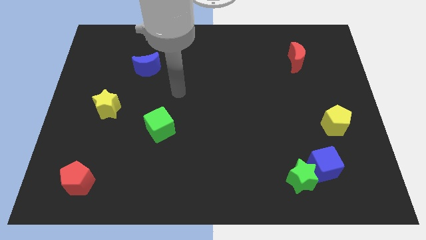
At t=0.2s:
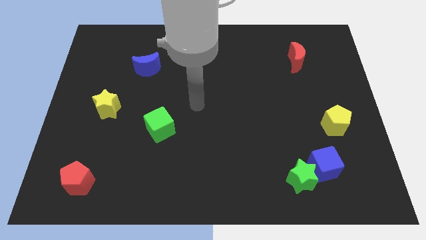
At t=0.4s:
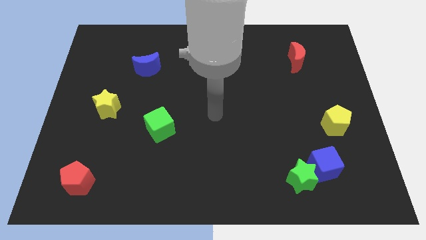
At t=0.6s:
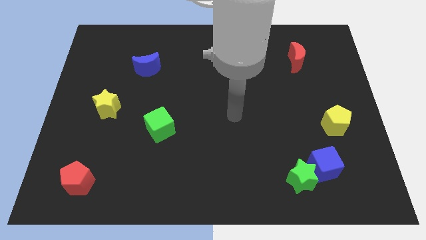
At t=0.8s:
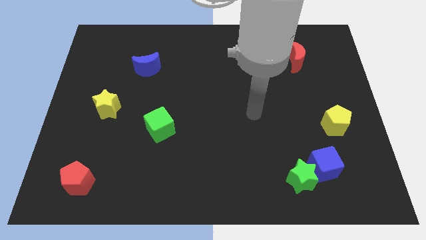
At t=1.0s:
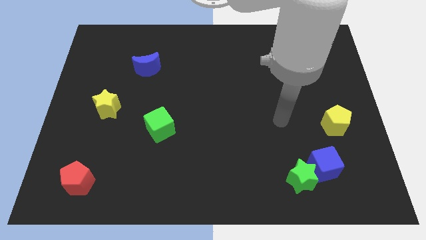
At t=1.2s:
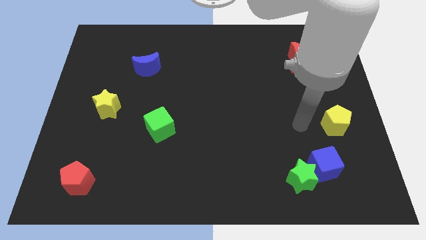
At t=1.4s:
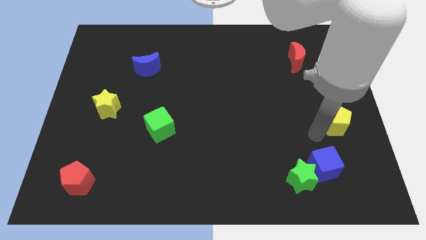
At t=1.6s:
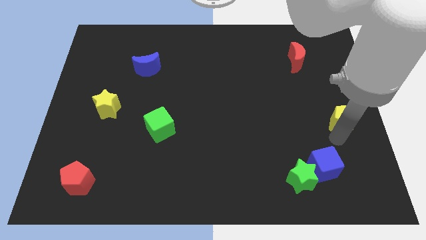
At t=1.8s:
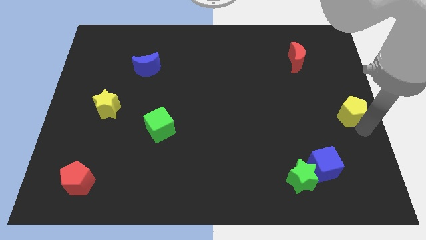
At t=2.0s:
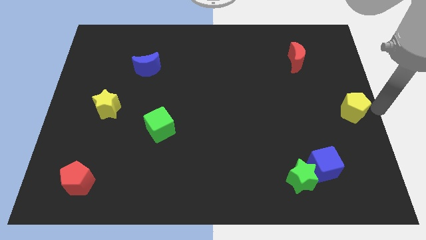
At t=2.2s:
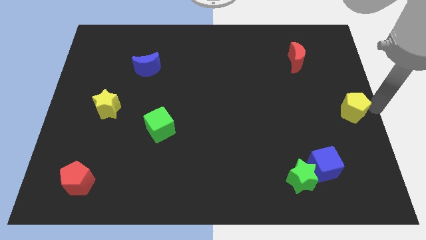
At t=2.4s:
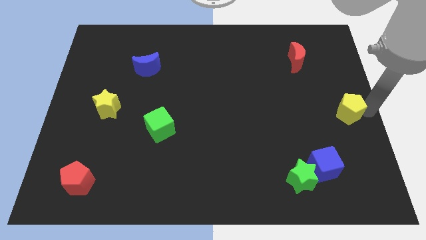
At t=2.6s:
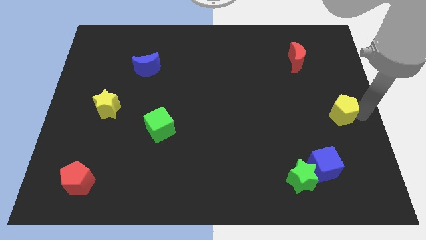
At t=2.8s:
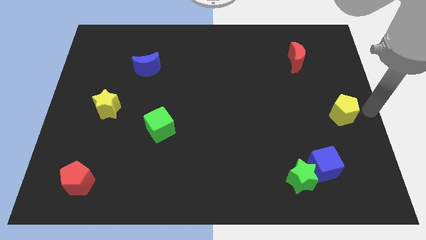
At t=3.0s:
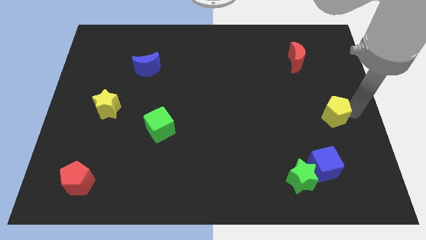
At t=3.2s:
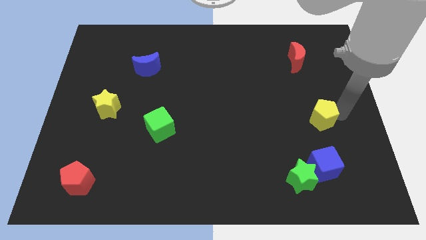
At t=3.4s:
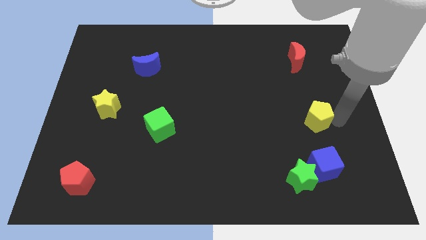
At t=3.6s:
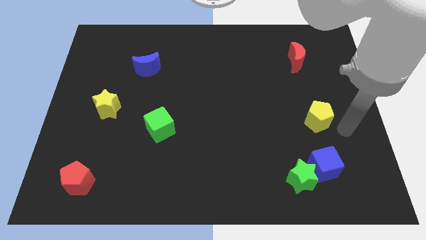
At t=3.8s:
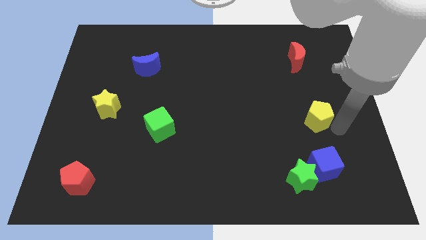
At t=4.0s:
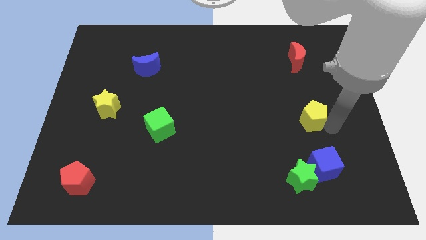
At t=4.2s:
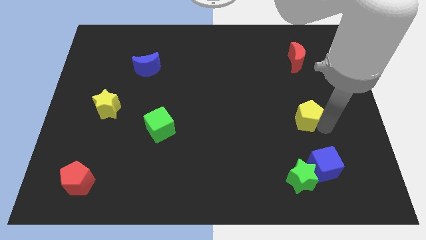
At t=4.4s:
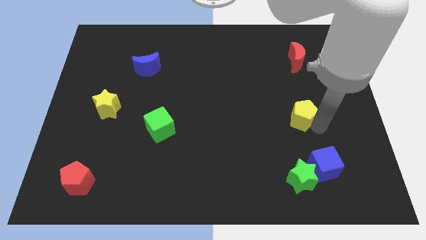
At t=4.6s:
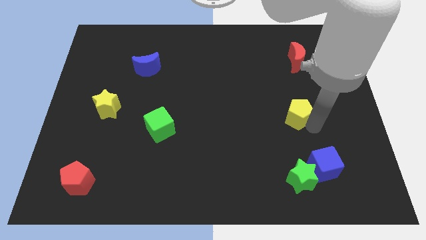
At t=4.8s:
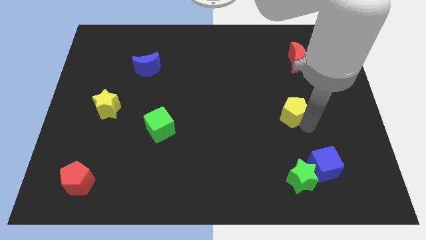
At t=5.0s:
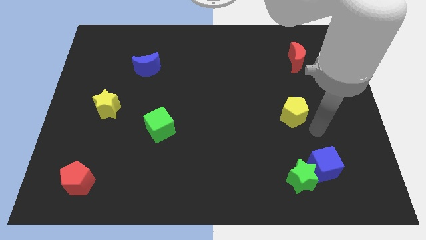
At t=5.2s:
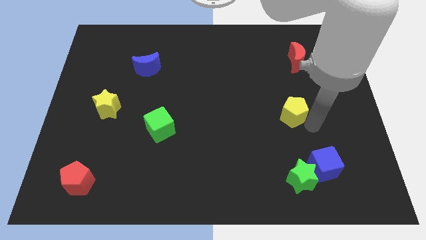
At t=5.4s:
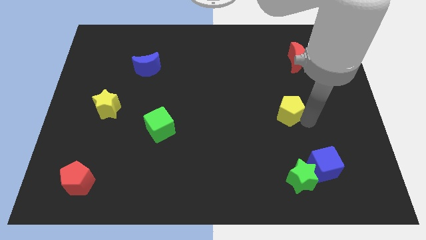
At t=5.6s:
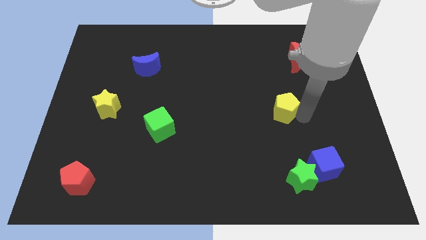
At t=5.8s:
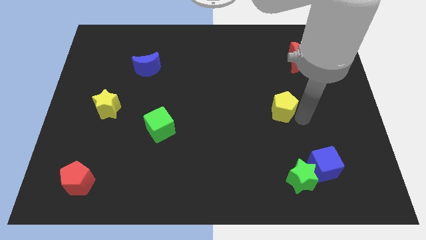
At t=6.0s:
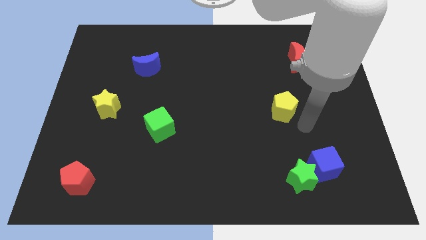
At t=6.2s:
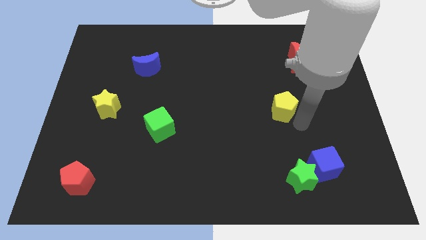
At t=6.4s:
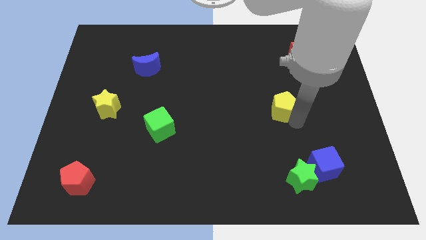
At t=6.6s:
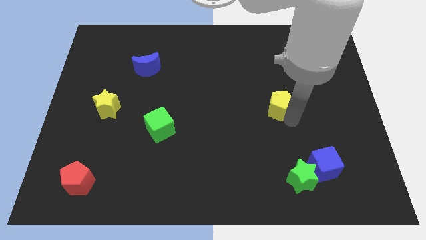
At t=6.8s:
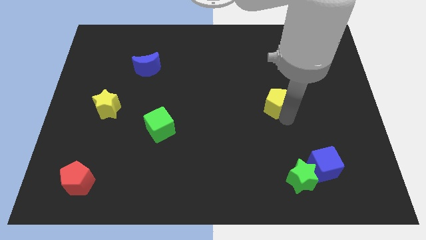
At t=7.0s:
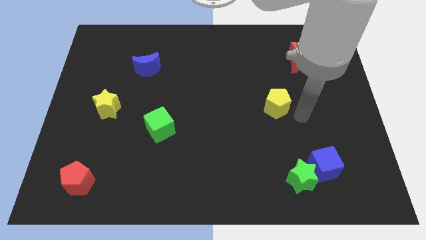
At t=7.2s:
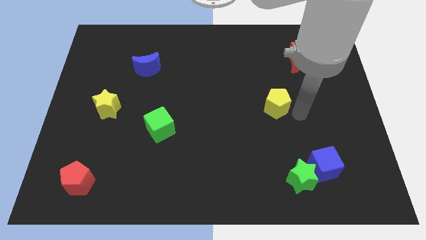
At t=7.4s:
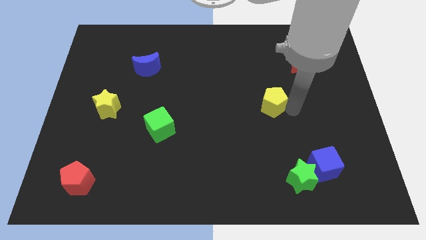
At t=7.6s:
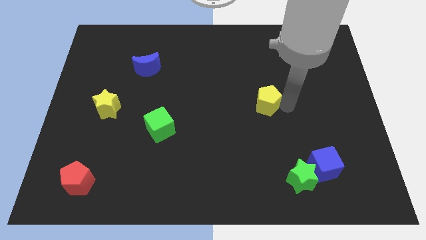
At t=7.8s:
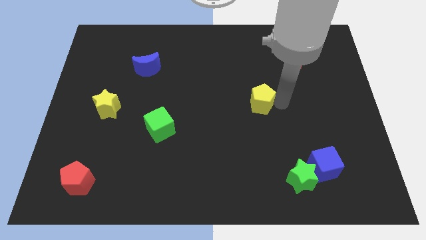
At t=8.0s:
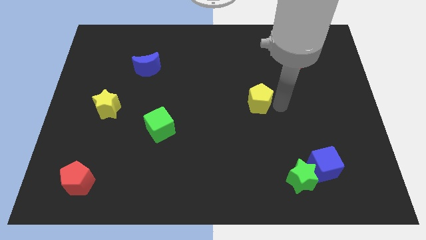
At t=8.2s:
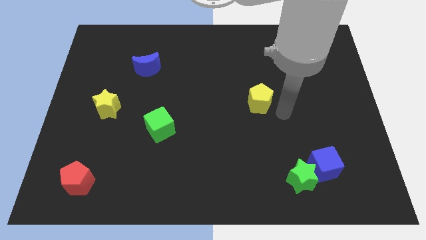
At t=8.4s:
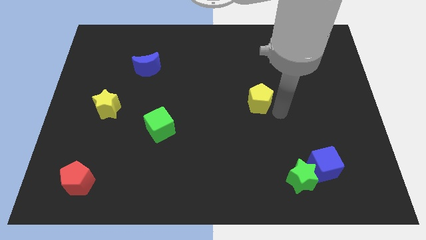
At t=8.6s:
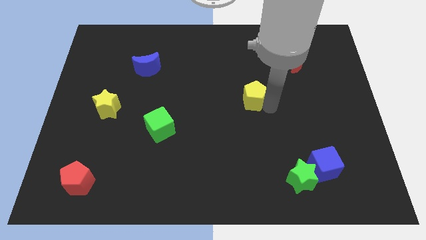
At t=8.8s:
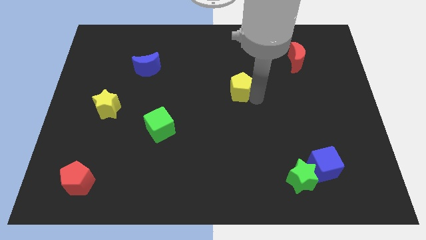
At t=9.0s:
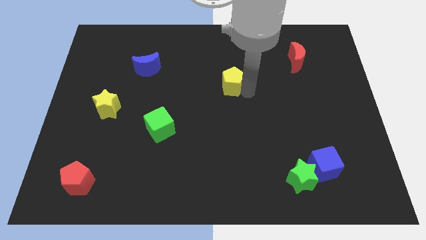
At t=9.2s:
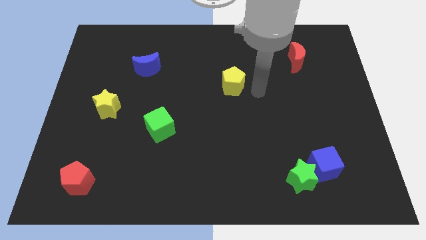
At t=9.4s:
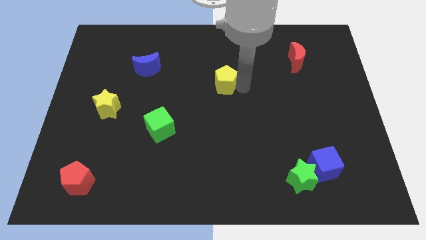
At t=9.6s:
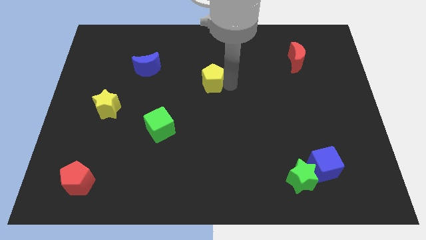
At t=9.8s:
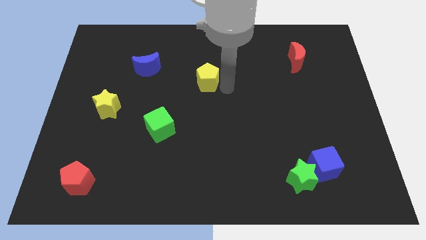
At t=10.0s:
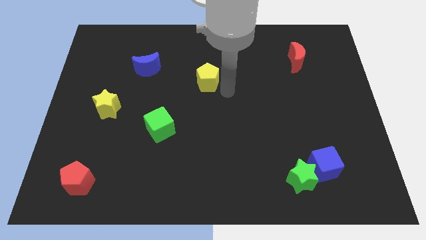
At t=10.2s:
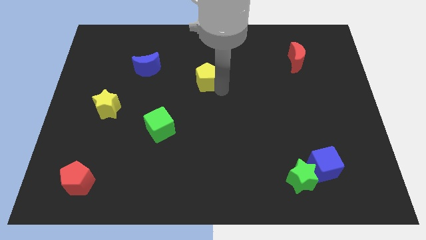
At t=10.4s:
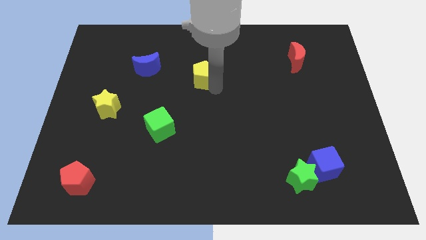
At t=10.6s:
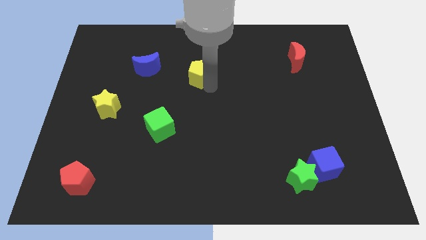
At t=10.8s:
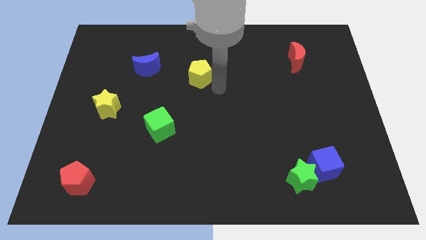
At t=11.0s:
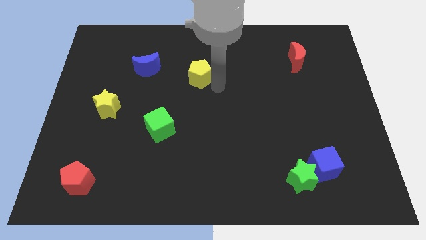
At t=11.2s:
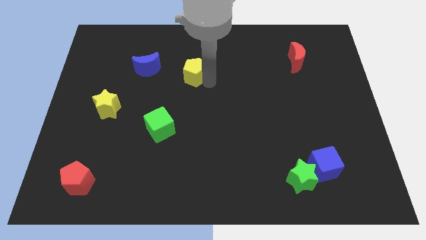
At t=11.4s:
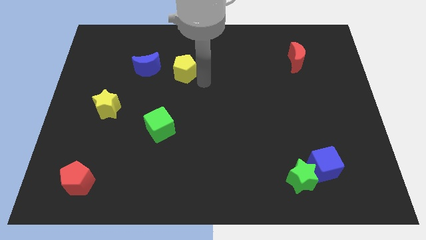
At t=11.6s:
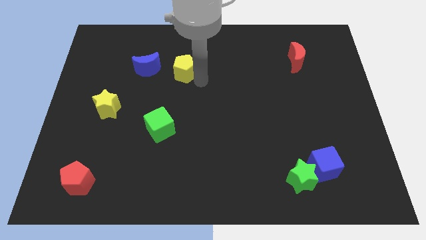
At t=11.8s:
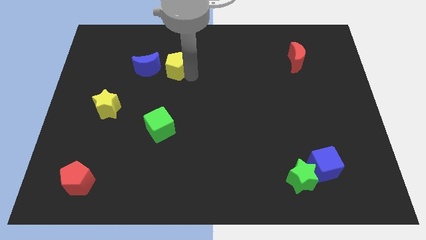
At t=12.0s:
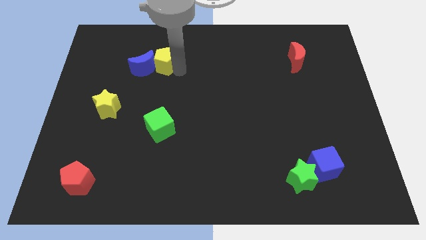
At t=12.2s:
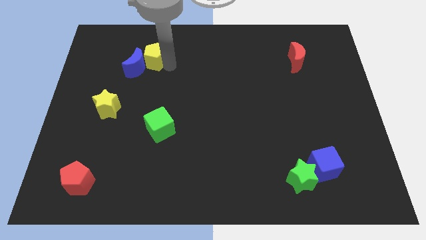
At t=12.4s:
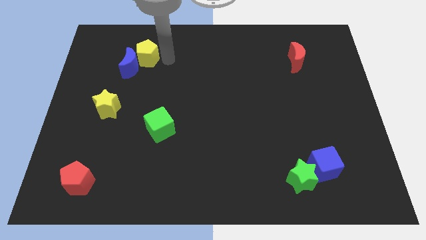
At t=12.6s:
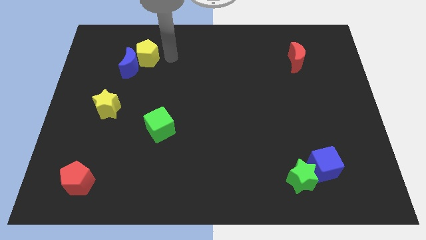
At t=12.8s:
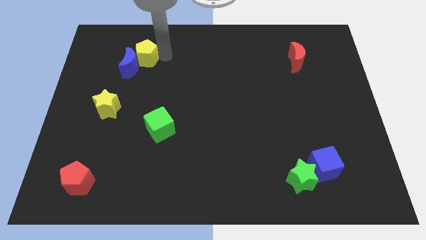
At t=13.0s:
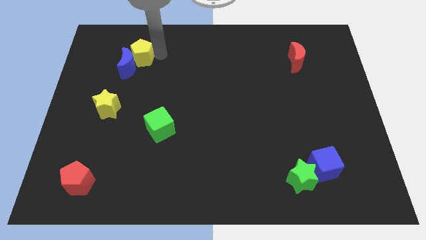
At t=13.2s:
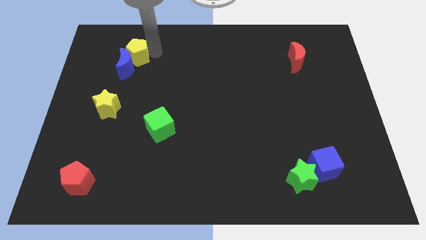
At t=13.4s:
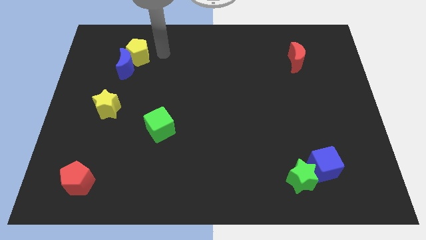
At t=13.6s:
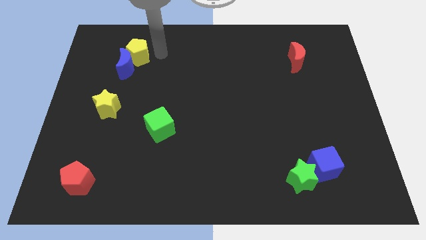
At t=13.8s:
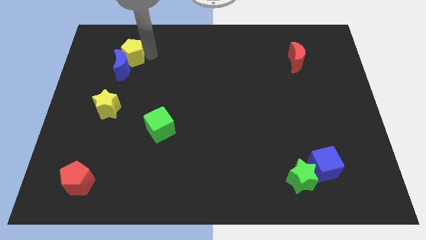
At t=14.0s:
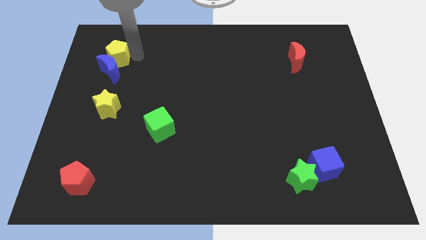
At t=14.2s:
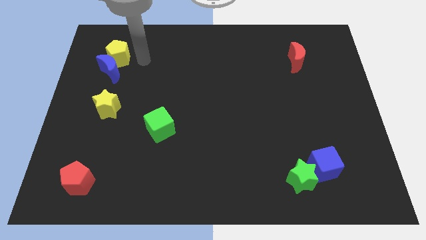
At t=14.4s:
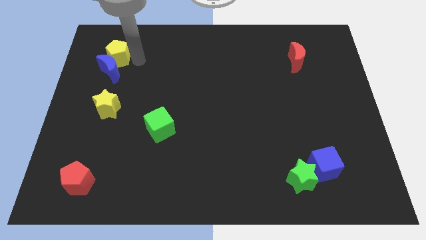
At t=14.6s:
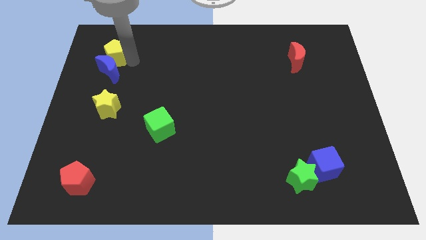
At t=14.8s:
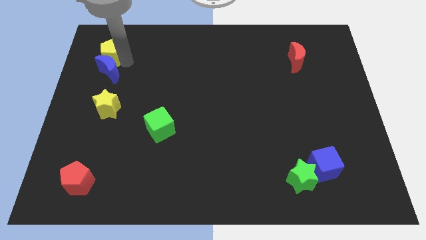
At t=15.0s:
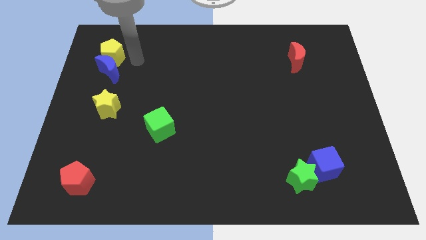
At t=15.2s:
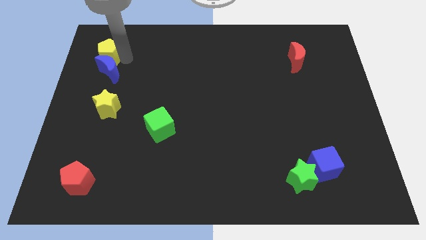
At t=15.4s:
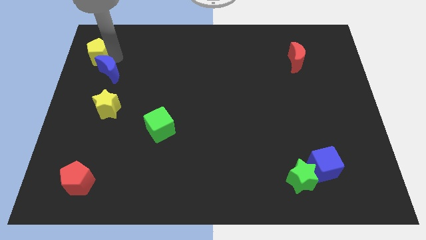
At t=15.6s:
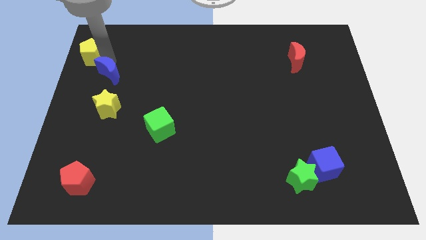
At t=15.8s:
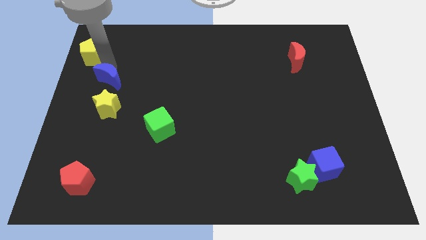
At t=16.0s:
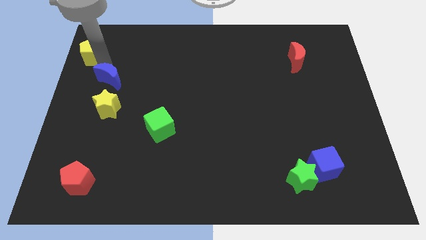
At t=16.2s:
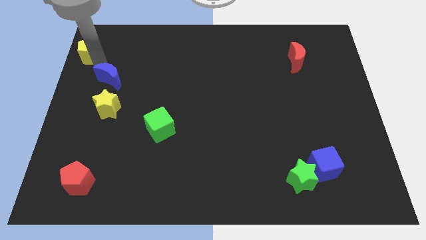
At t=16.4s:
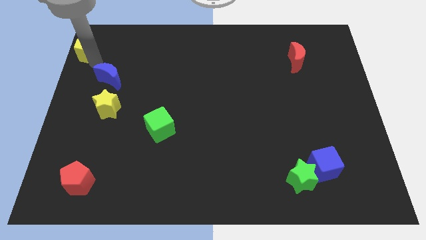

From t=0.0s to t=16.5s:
slide the yellow pentagon to the top left
